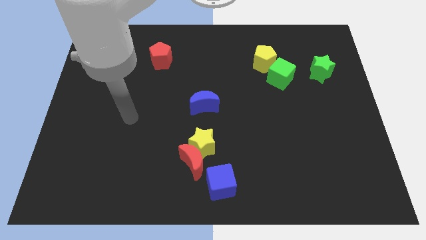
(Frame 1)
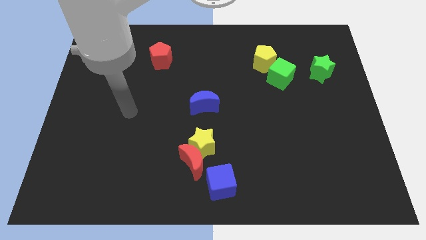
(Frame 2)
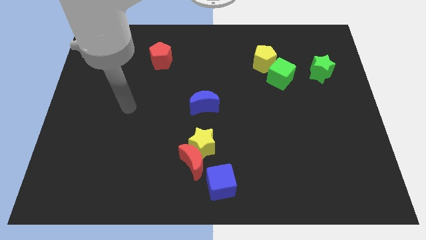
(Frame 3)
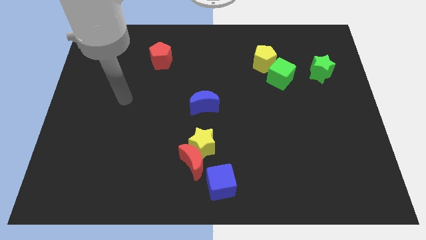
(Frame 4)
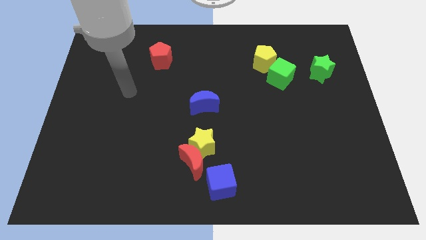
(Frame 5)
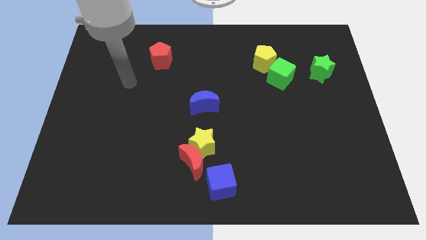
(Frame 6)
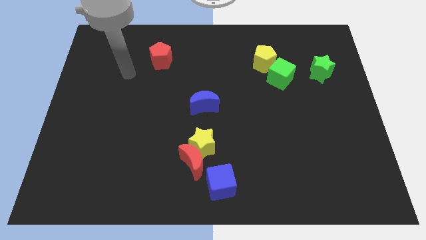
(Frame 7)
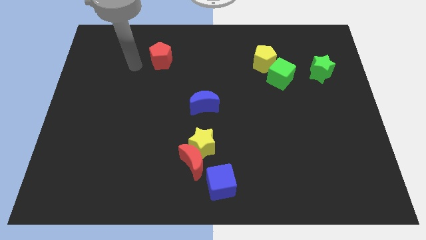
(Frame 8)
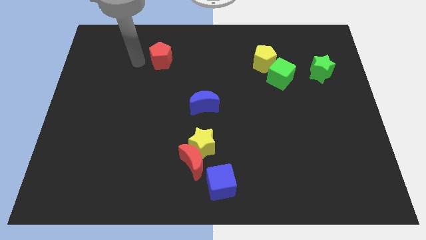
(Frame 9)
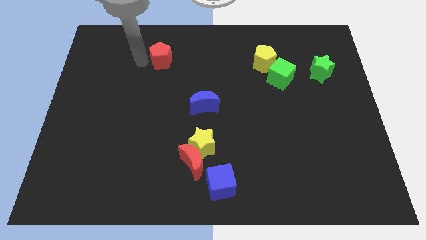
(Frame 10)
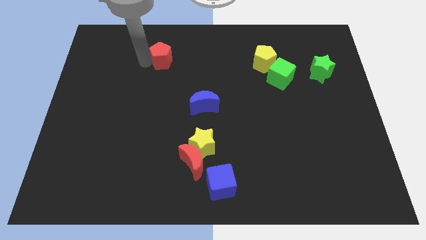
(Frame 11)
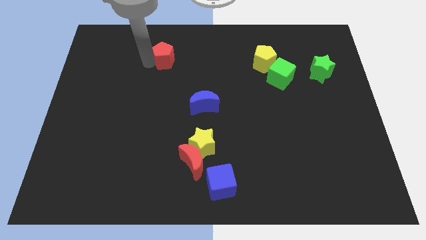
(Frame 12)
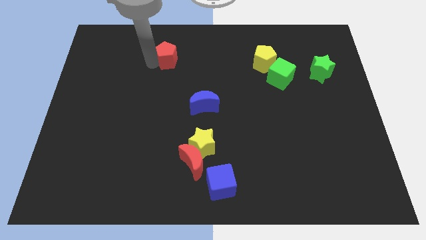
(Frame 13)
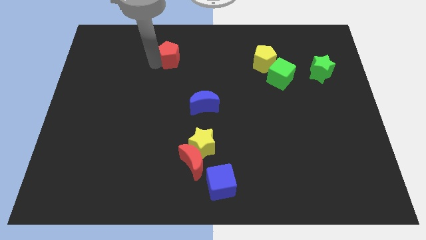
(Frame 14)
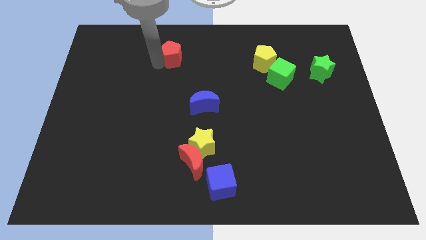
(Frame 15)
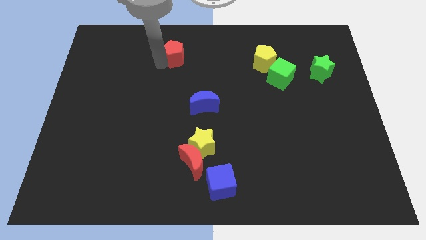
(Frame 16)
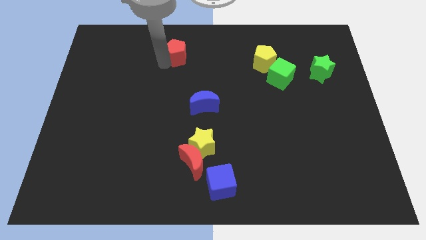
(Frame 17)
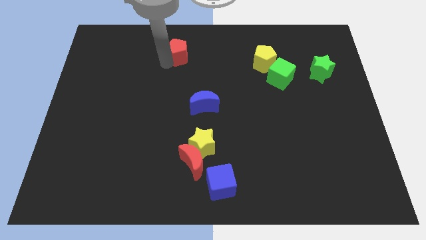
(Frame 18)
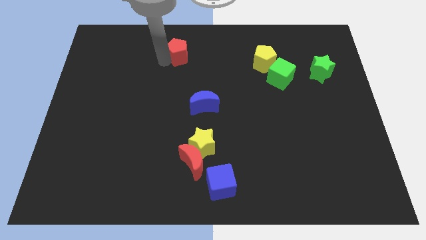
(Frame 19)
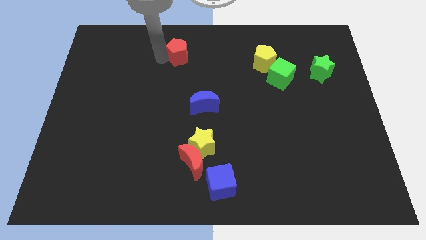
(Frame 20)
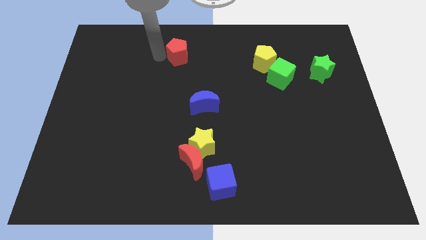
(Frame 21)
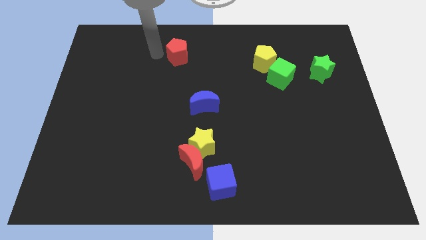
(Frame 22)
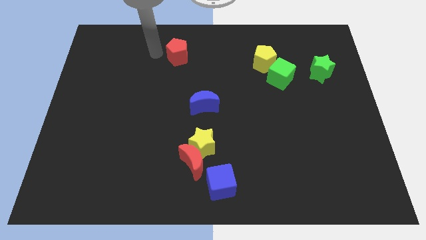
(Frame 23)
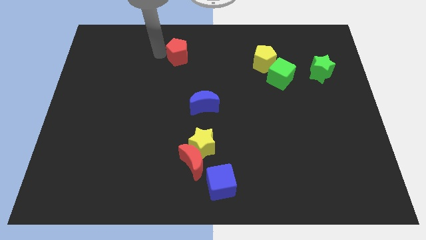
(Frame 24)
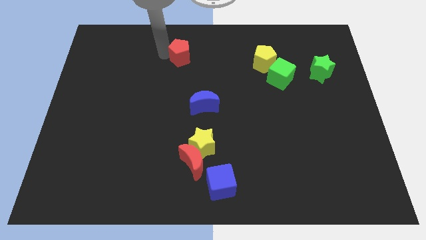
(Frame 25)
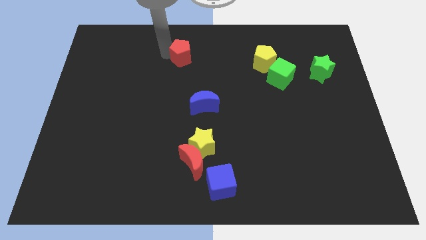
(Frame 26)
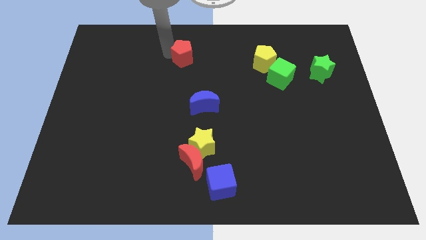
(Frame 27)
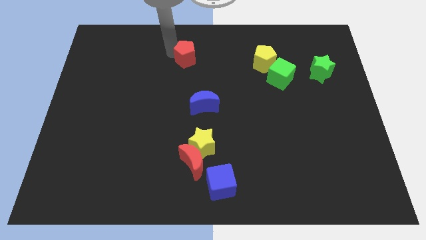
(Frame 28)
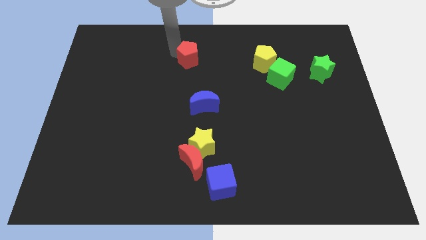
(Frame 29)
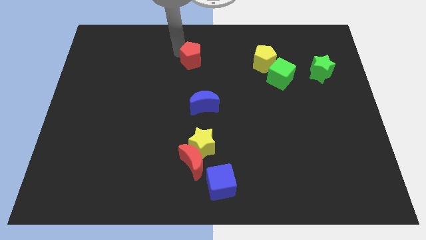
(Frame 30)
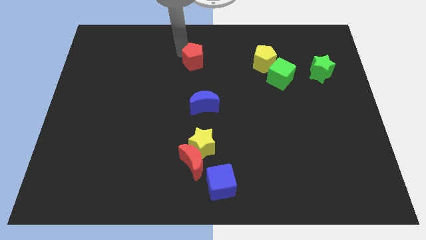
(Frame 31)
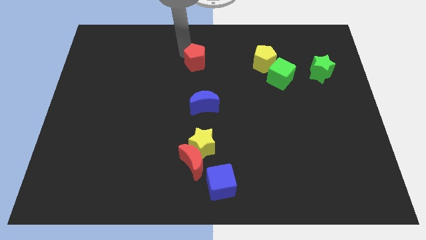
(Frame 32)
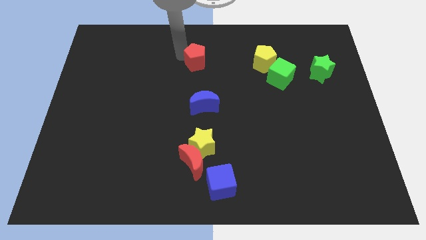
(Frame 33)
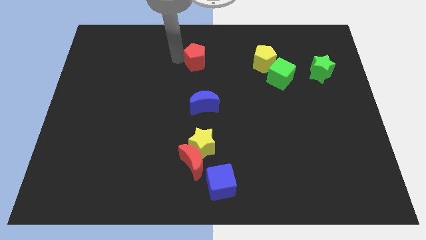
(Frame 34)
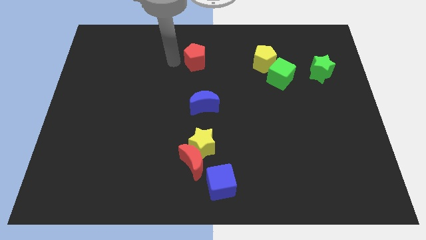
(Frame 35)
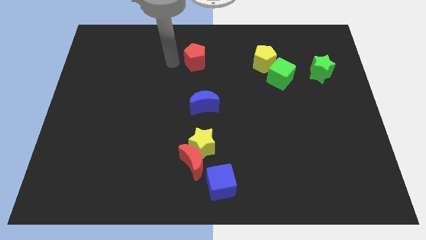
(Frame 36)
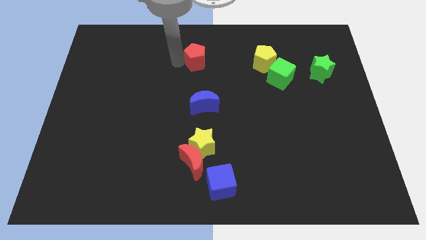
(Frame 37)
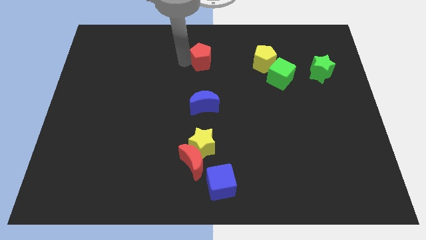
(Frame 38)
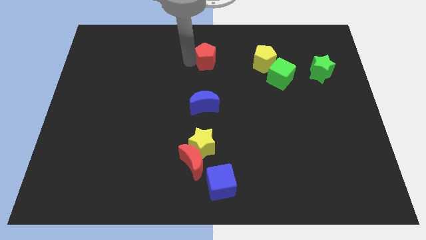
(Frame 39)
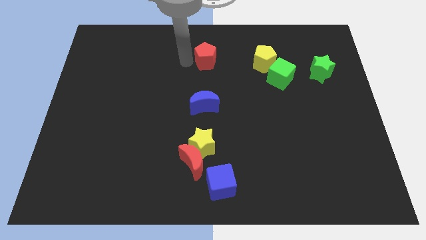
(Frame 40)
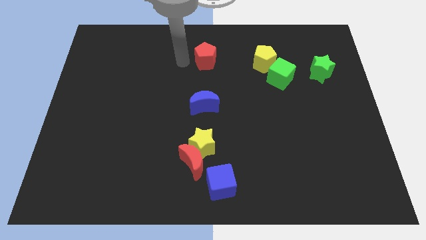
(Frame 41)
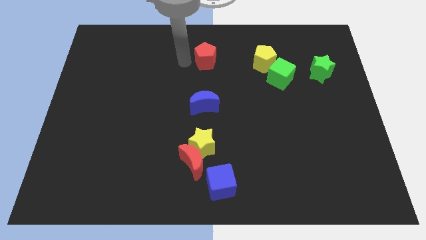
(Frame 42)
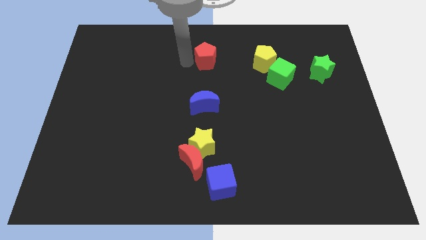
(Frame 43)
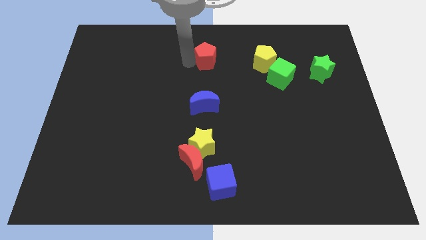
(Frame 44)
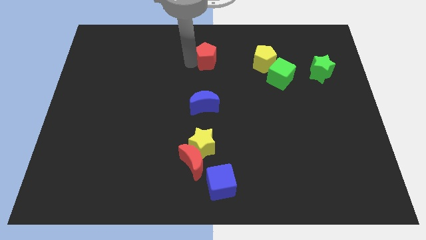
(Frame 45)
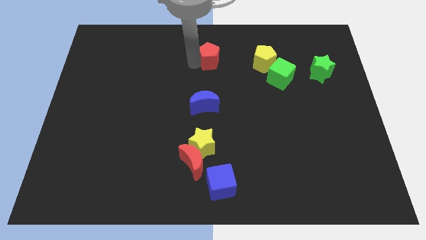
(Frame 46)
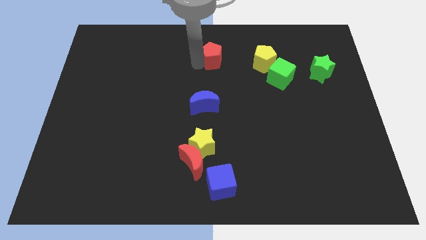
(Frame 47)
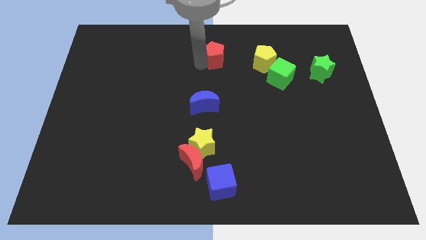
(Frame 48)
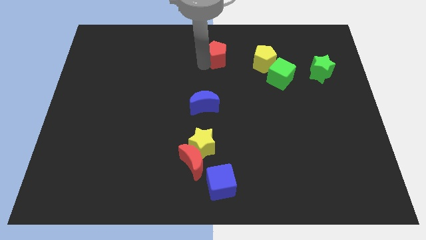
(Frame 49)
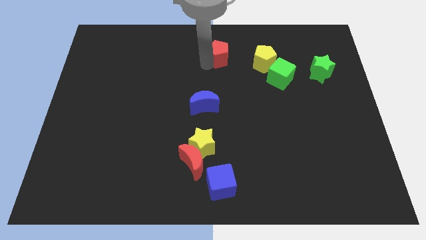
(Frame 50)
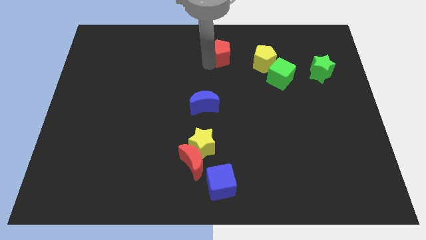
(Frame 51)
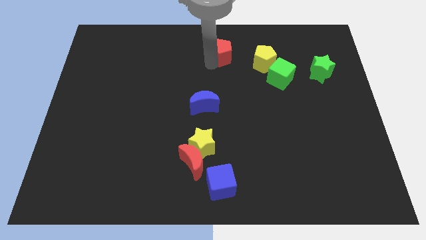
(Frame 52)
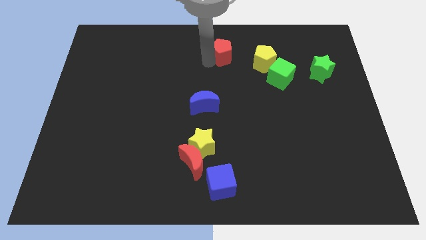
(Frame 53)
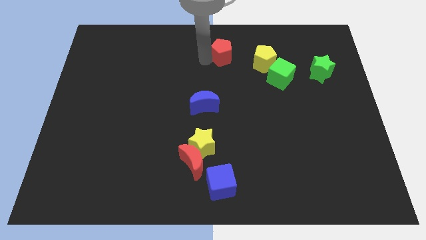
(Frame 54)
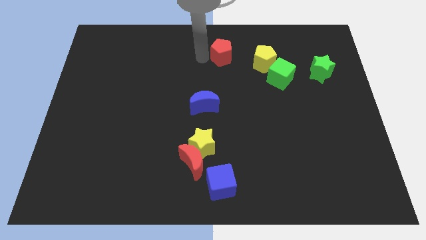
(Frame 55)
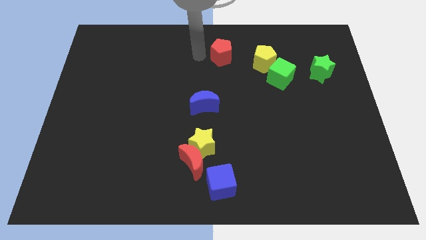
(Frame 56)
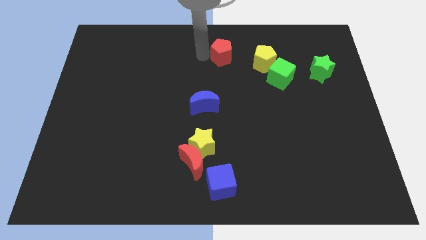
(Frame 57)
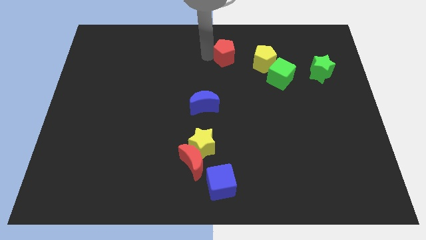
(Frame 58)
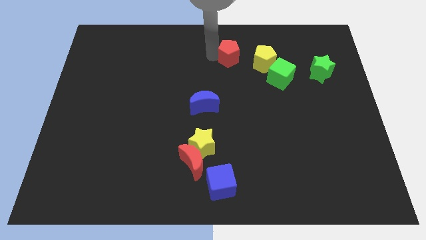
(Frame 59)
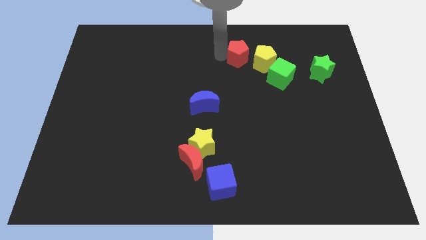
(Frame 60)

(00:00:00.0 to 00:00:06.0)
move the red pentagon to the top left side of the green cube
